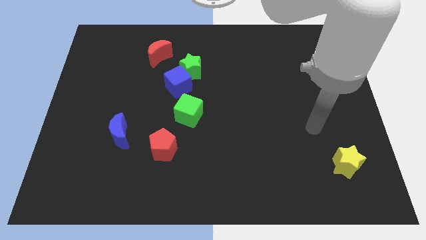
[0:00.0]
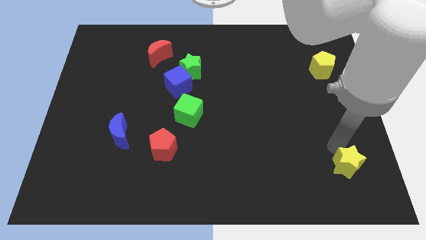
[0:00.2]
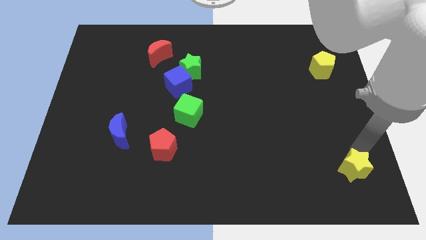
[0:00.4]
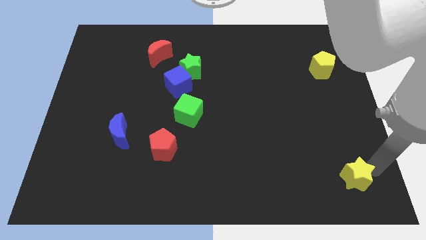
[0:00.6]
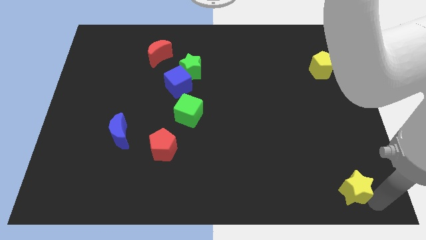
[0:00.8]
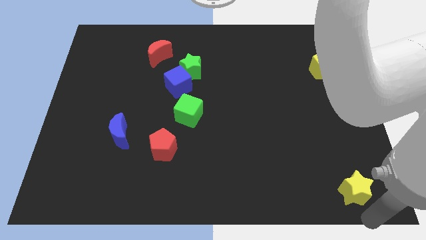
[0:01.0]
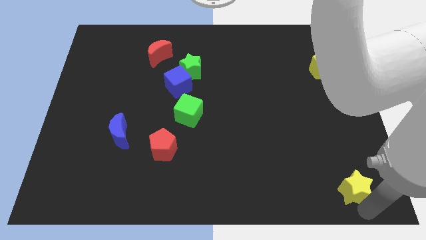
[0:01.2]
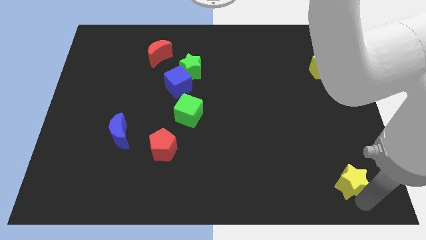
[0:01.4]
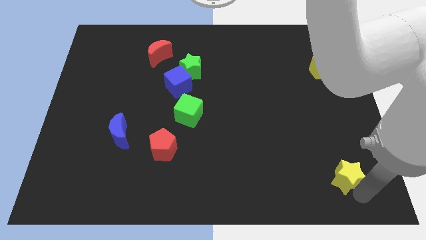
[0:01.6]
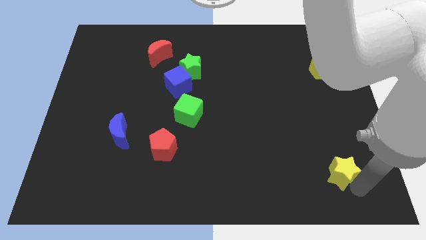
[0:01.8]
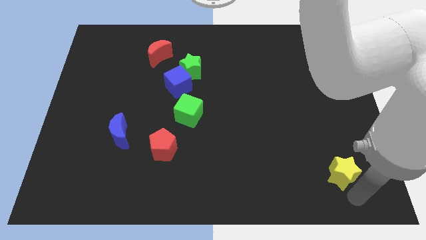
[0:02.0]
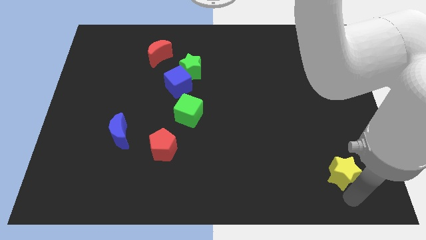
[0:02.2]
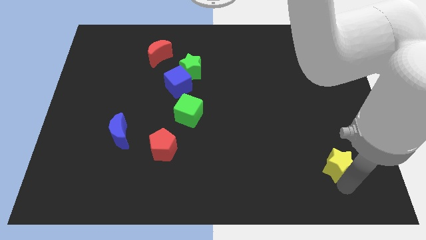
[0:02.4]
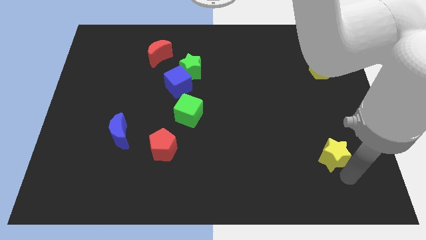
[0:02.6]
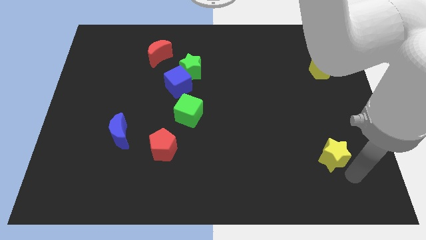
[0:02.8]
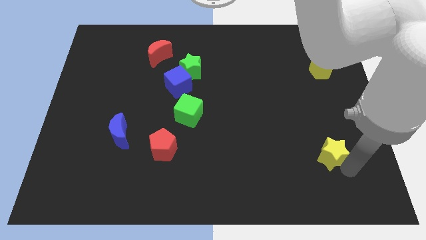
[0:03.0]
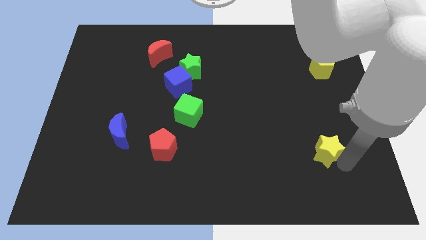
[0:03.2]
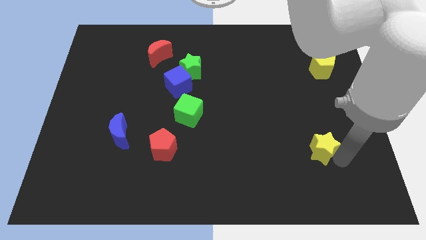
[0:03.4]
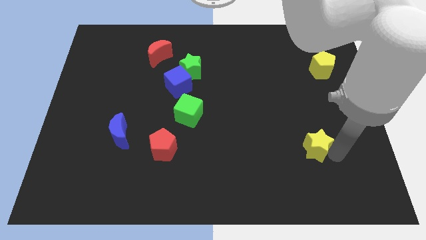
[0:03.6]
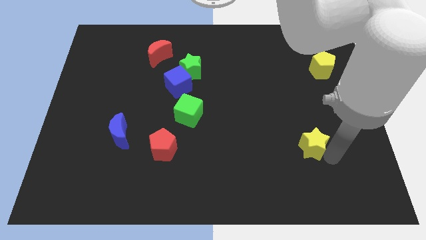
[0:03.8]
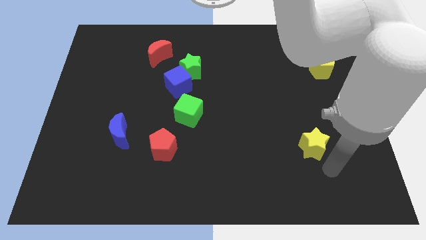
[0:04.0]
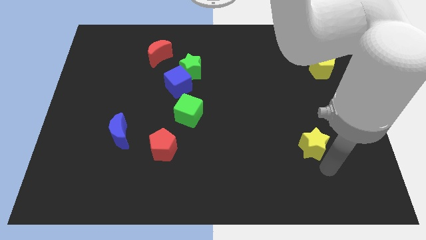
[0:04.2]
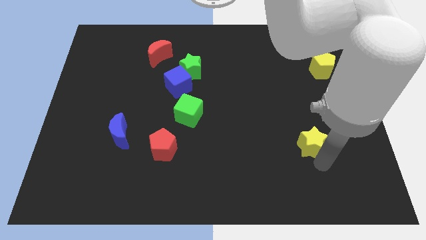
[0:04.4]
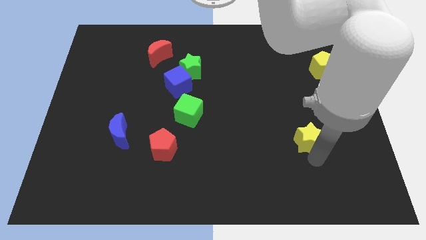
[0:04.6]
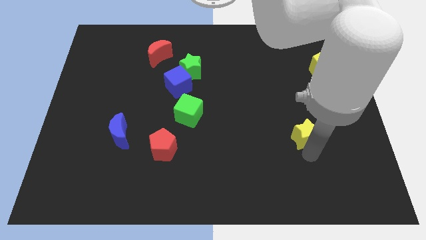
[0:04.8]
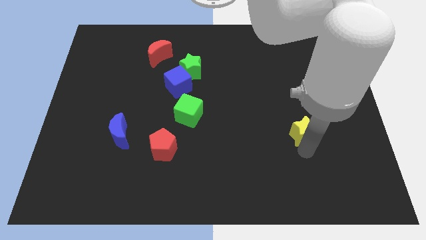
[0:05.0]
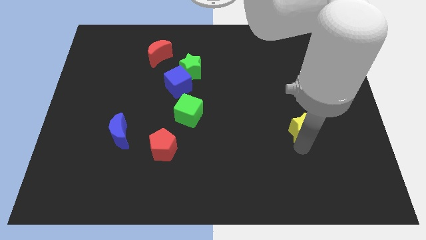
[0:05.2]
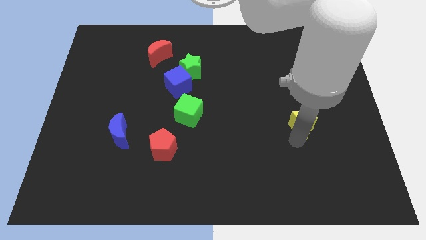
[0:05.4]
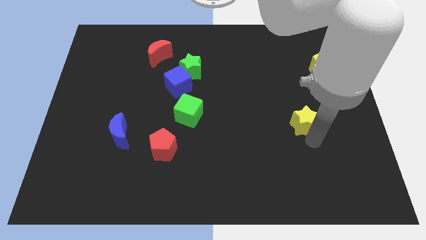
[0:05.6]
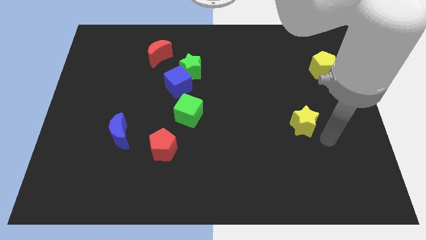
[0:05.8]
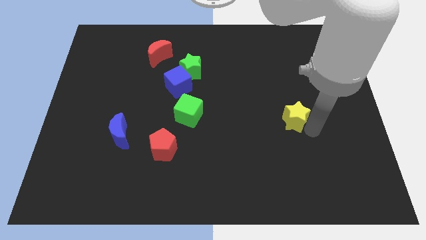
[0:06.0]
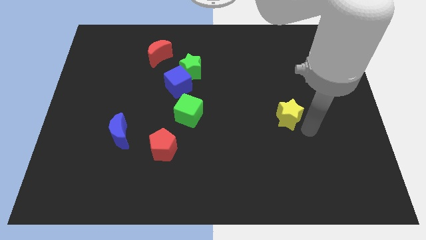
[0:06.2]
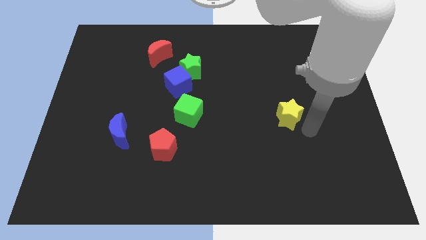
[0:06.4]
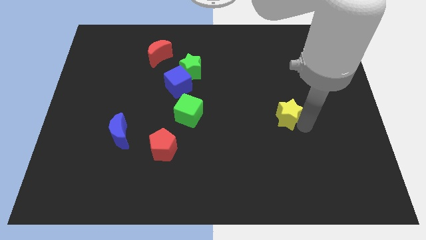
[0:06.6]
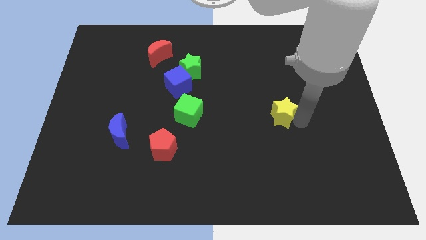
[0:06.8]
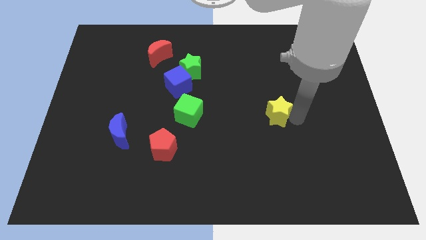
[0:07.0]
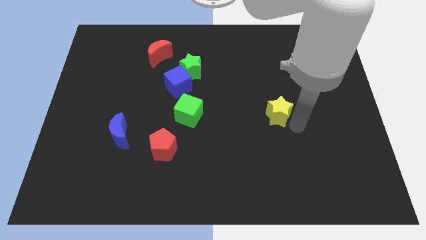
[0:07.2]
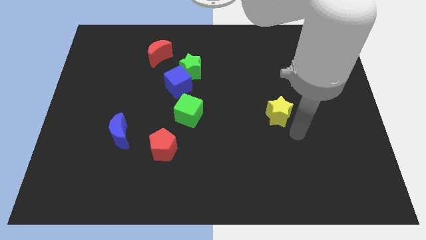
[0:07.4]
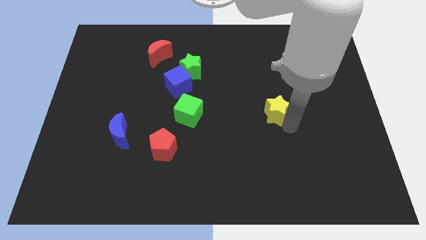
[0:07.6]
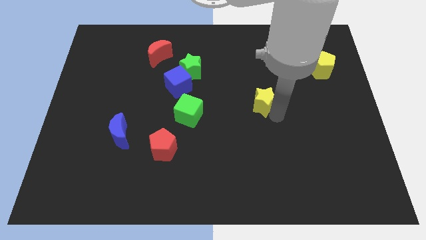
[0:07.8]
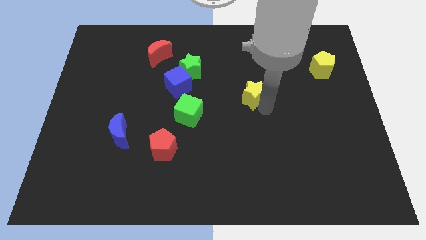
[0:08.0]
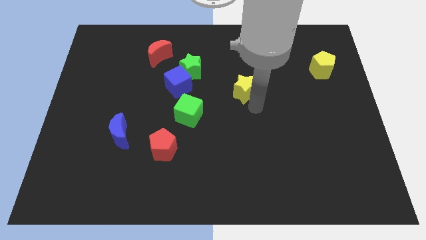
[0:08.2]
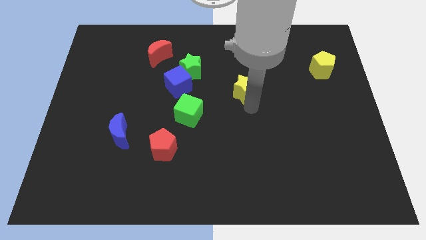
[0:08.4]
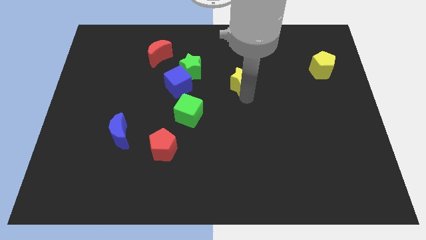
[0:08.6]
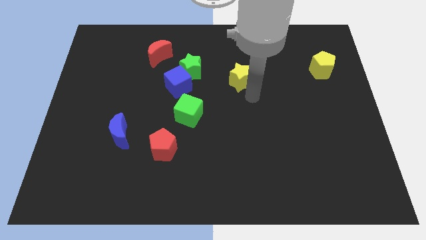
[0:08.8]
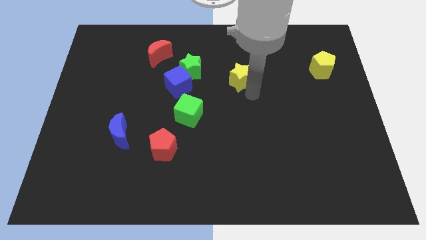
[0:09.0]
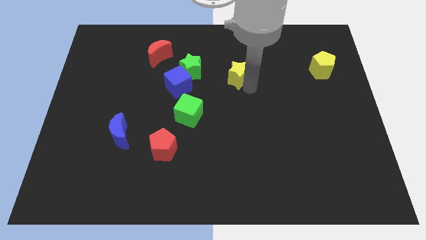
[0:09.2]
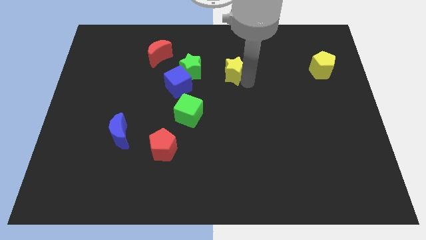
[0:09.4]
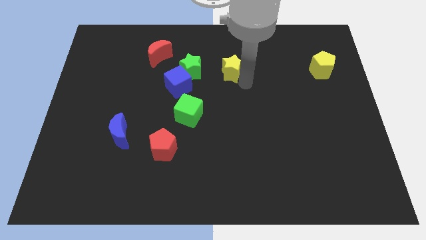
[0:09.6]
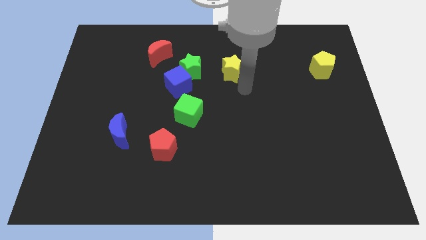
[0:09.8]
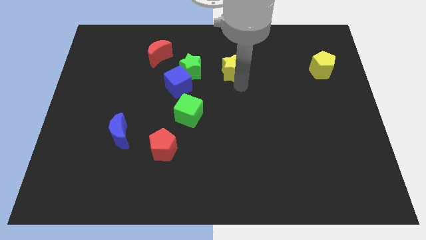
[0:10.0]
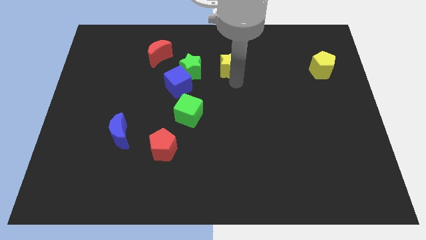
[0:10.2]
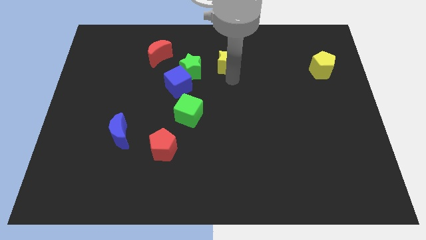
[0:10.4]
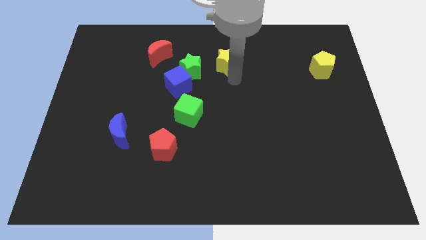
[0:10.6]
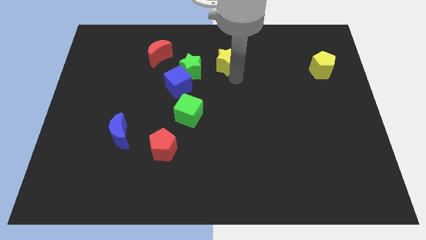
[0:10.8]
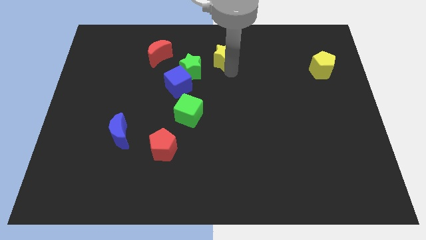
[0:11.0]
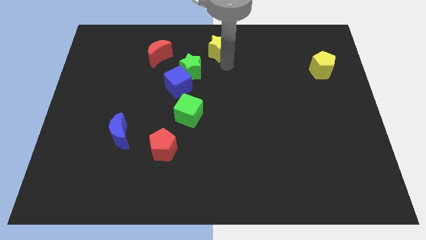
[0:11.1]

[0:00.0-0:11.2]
move the yellow star to the towards your base

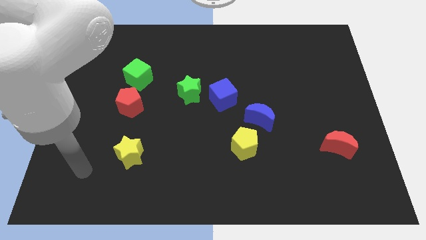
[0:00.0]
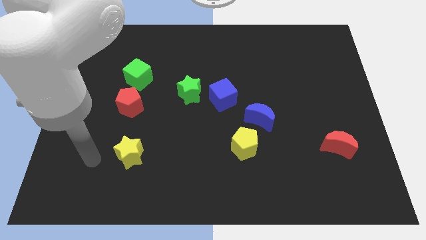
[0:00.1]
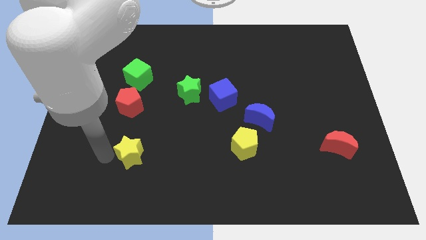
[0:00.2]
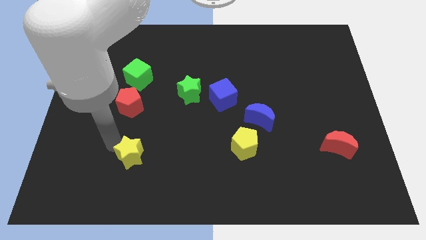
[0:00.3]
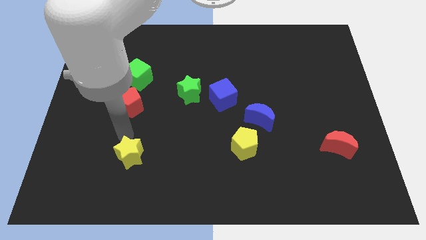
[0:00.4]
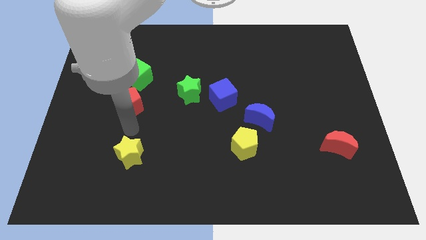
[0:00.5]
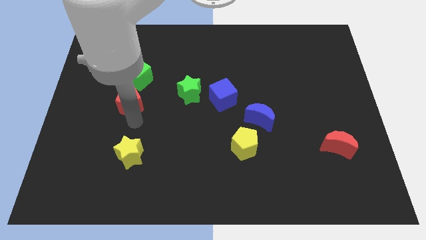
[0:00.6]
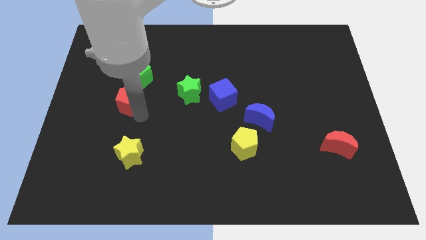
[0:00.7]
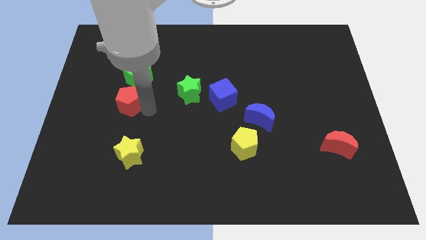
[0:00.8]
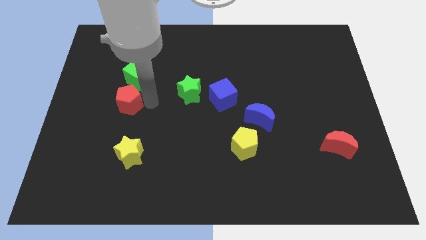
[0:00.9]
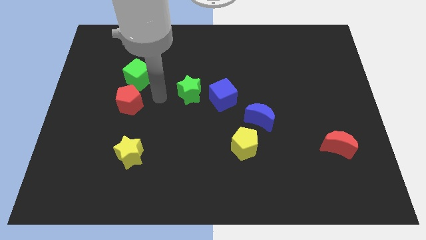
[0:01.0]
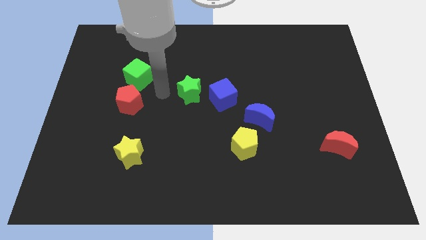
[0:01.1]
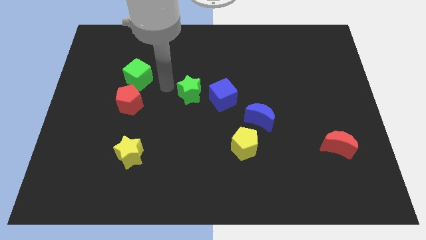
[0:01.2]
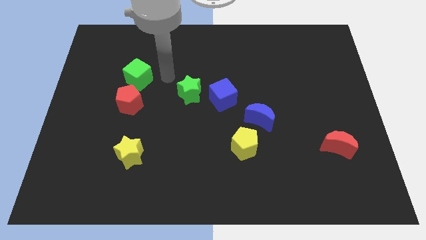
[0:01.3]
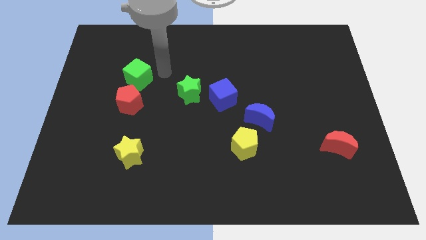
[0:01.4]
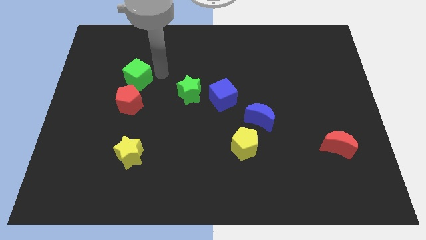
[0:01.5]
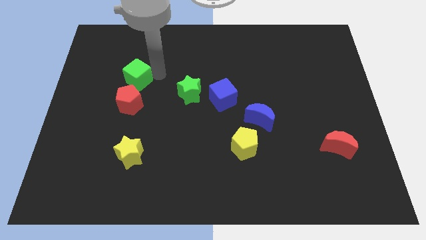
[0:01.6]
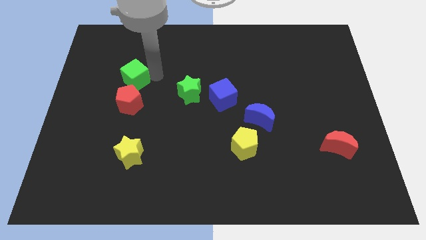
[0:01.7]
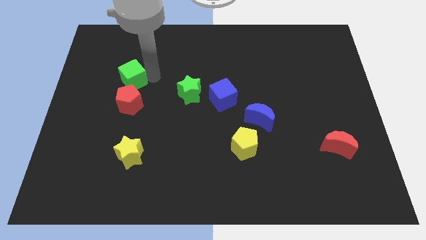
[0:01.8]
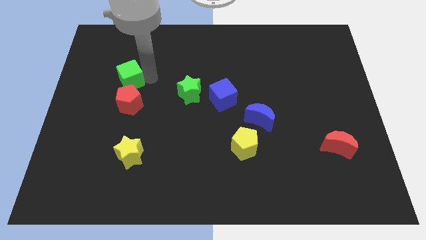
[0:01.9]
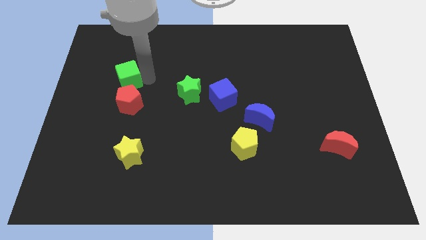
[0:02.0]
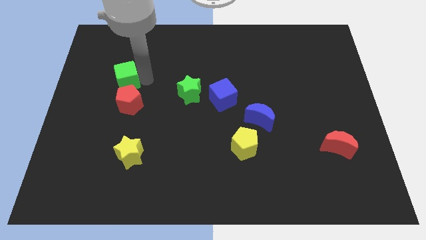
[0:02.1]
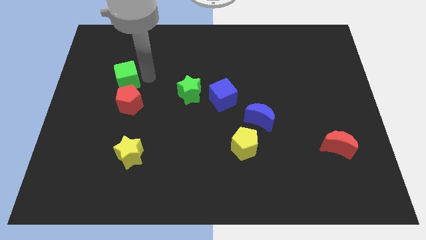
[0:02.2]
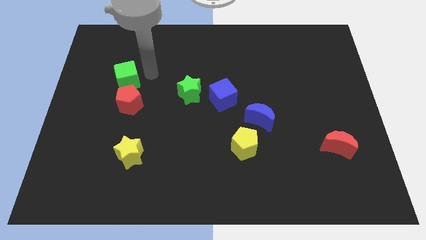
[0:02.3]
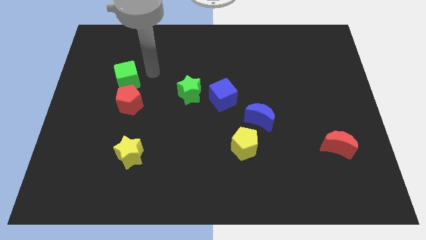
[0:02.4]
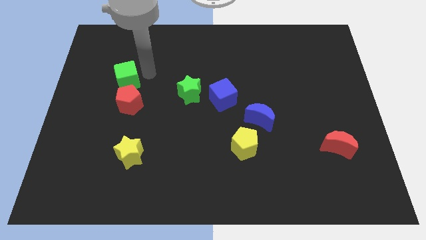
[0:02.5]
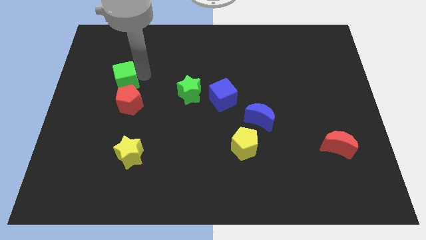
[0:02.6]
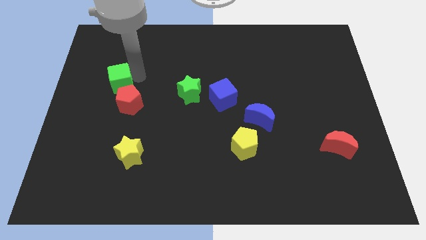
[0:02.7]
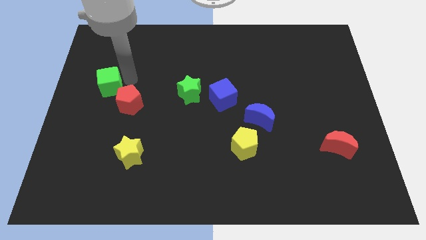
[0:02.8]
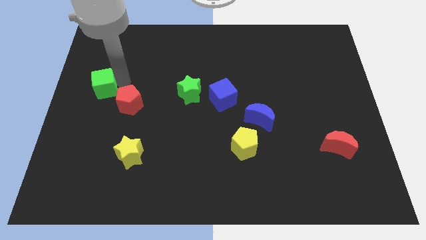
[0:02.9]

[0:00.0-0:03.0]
push the green cube to the left side of the board
